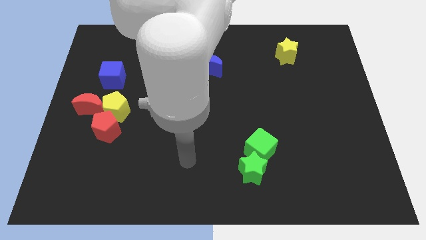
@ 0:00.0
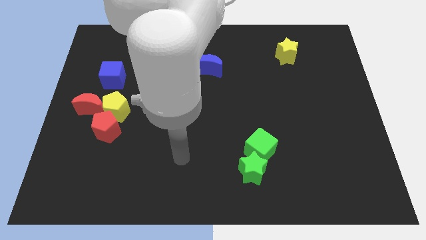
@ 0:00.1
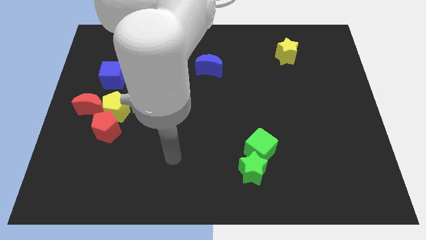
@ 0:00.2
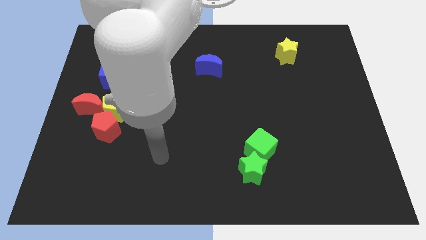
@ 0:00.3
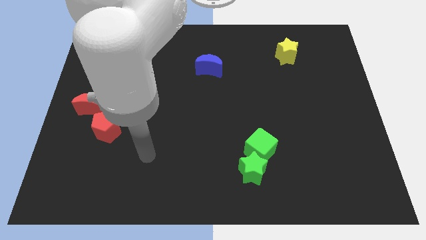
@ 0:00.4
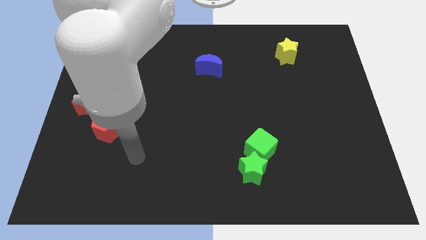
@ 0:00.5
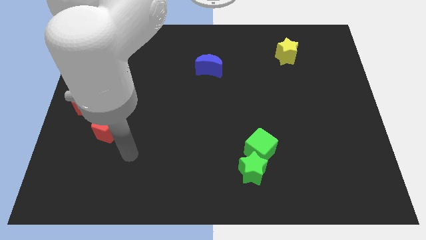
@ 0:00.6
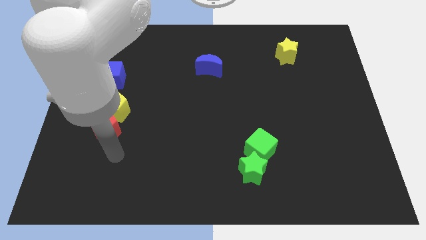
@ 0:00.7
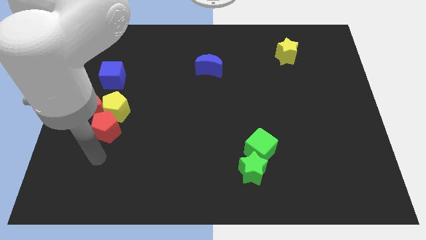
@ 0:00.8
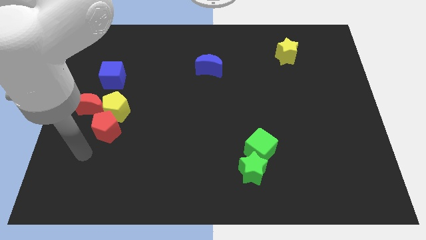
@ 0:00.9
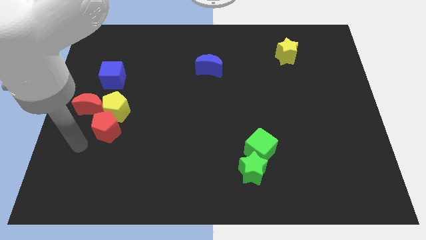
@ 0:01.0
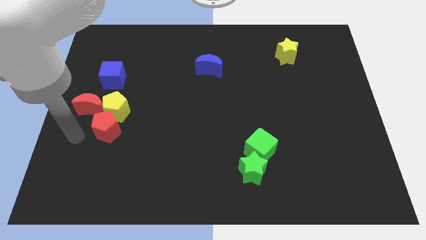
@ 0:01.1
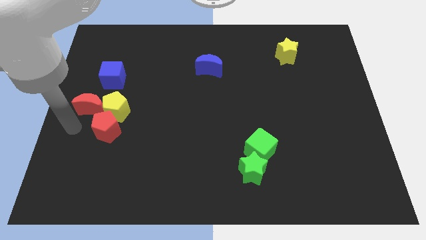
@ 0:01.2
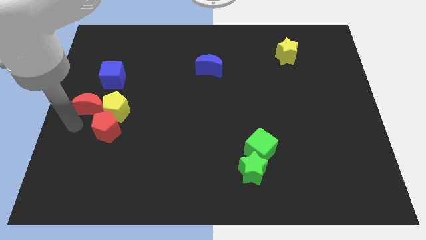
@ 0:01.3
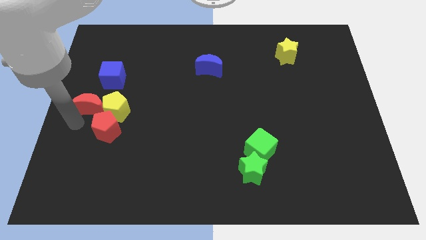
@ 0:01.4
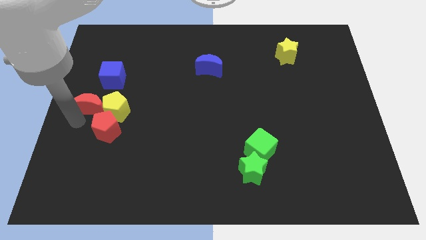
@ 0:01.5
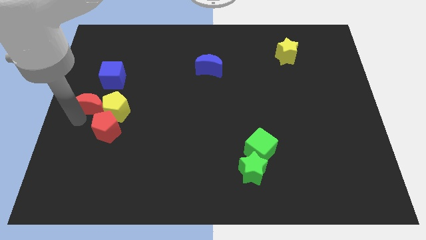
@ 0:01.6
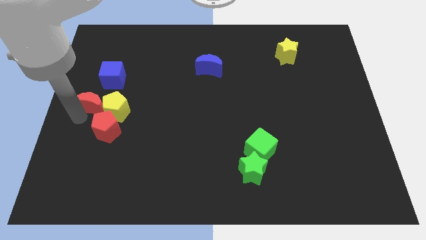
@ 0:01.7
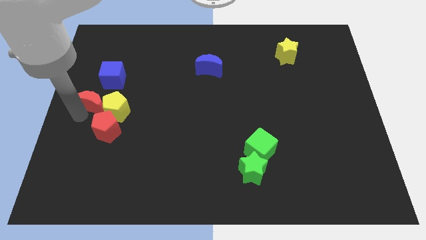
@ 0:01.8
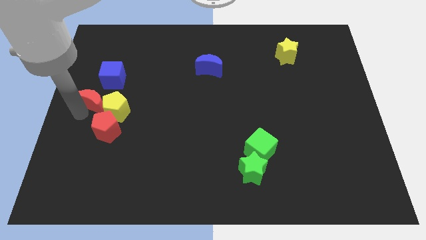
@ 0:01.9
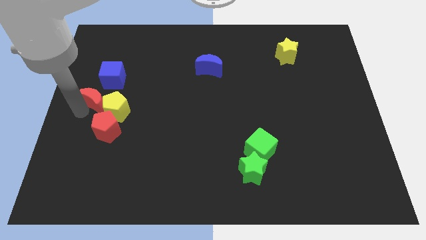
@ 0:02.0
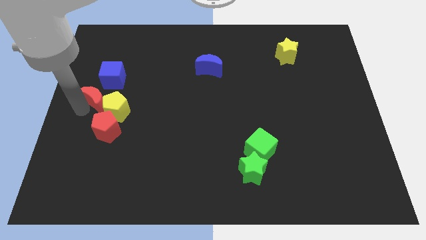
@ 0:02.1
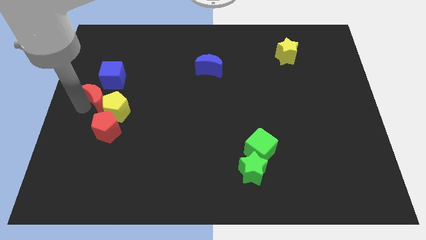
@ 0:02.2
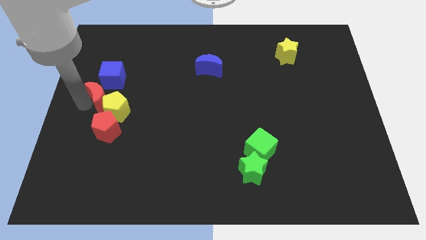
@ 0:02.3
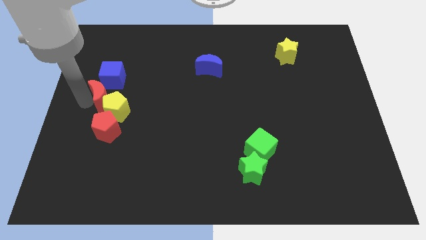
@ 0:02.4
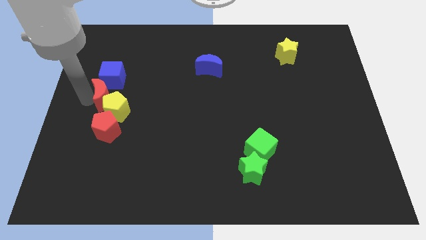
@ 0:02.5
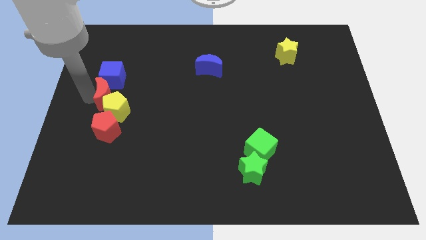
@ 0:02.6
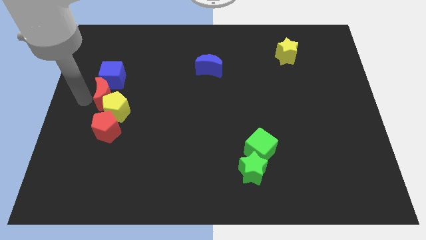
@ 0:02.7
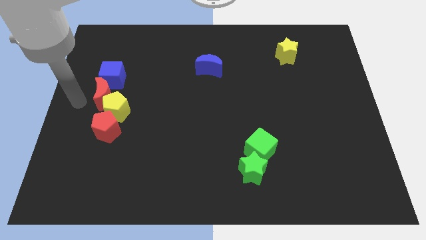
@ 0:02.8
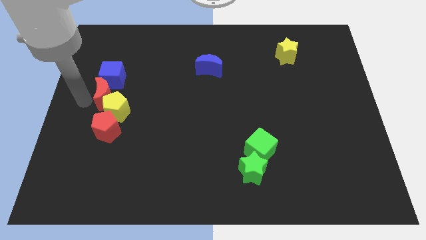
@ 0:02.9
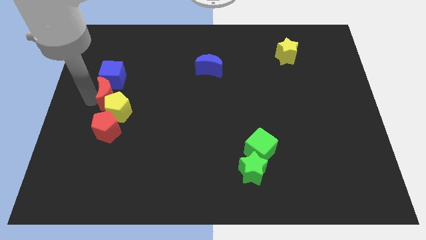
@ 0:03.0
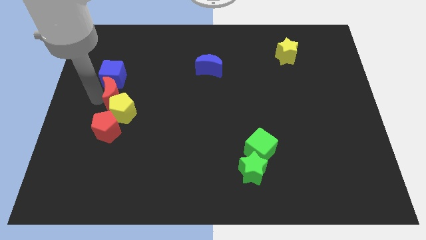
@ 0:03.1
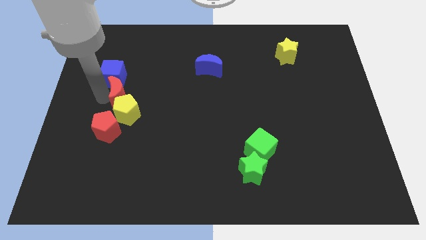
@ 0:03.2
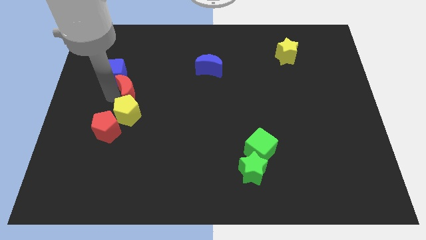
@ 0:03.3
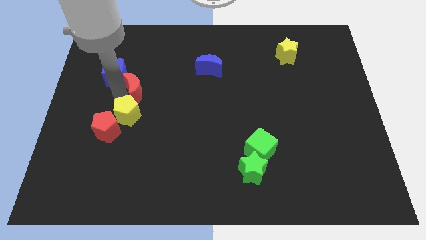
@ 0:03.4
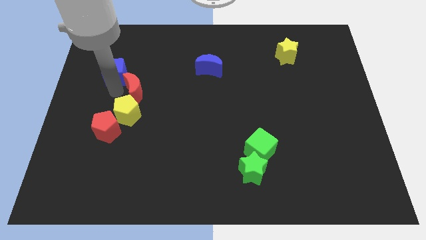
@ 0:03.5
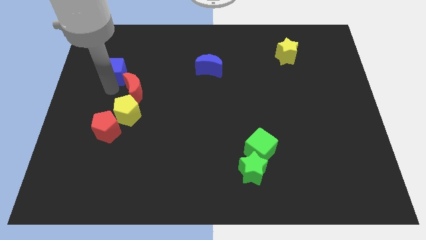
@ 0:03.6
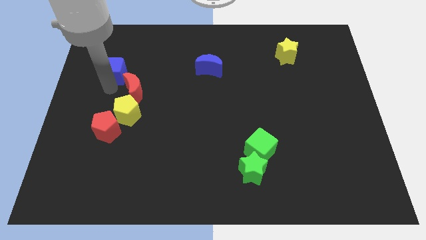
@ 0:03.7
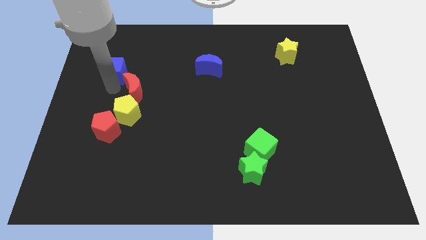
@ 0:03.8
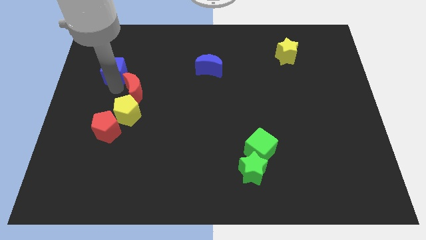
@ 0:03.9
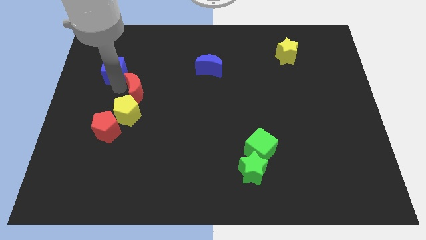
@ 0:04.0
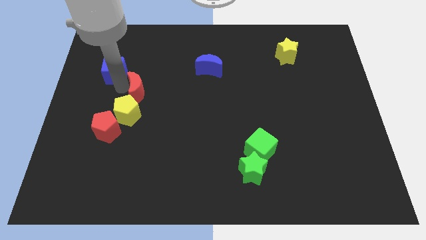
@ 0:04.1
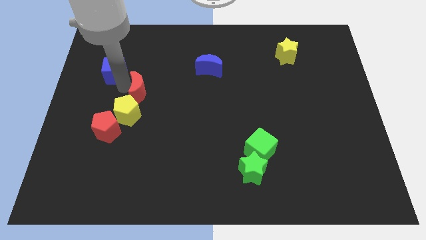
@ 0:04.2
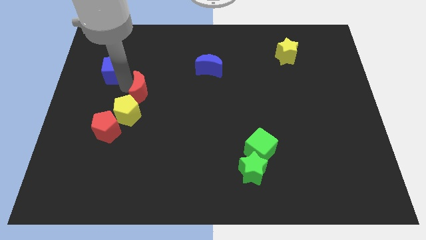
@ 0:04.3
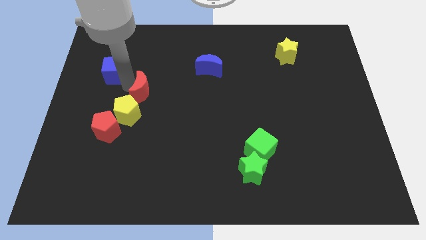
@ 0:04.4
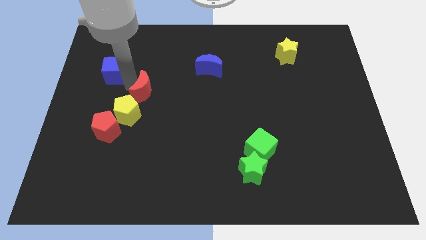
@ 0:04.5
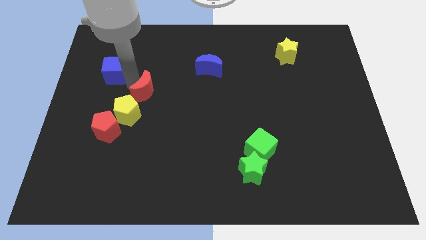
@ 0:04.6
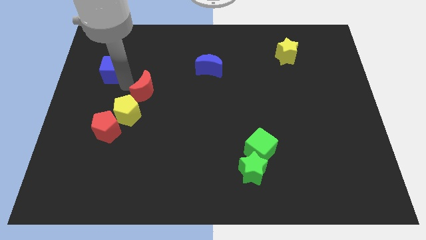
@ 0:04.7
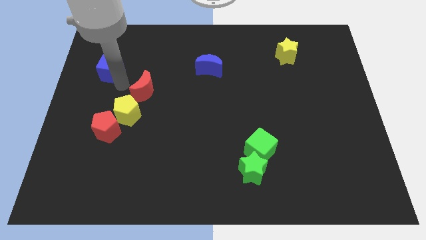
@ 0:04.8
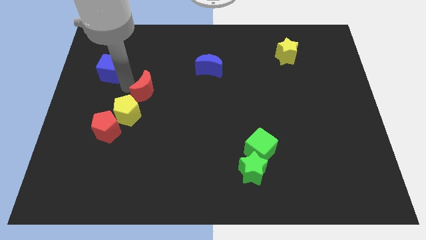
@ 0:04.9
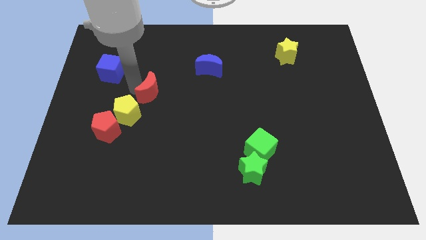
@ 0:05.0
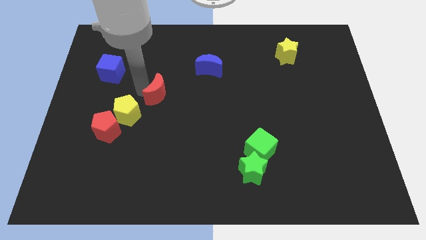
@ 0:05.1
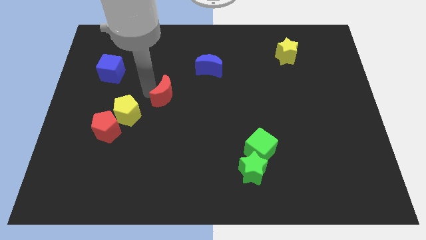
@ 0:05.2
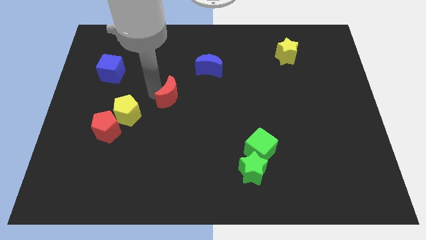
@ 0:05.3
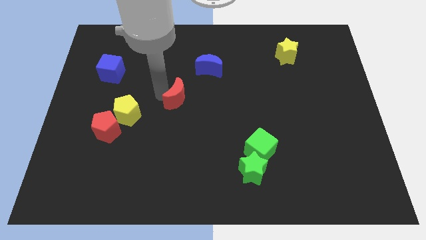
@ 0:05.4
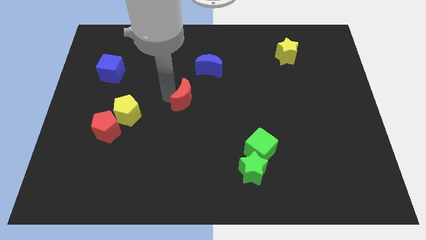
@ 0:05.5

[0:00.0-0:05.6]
slide the red moon right

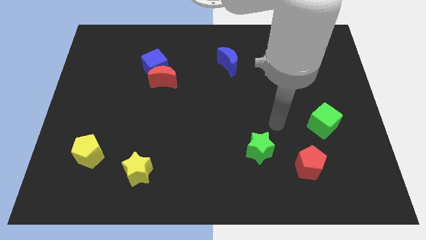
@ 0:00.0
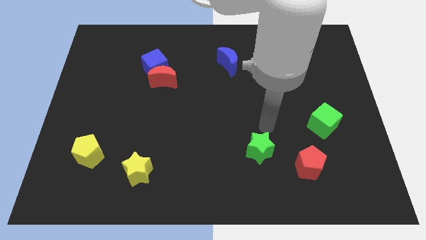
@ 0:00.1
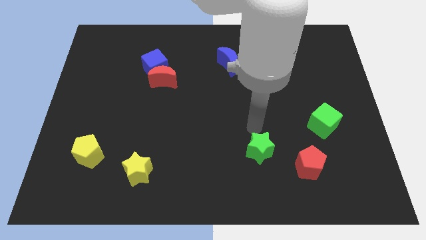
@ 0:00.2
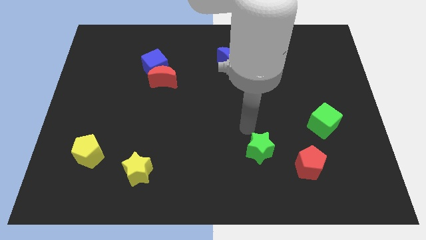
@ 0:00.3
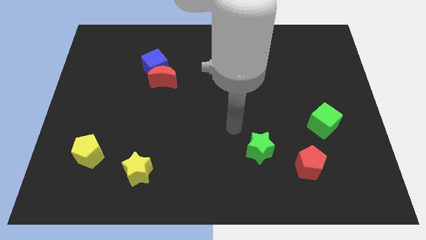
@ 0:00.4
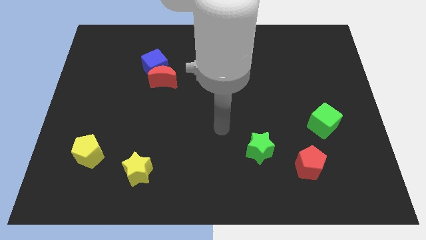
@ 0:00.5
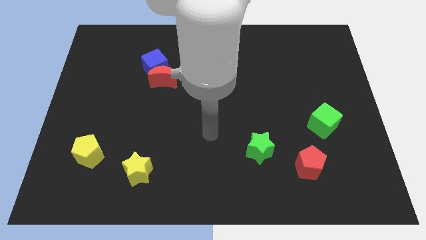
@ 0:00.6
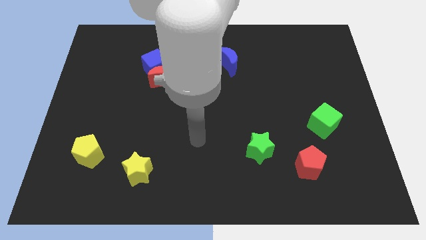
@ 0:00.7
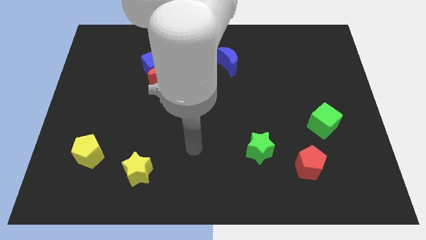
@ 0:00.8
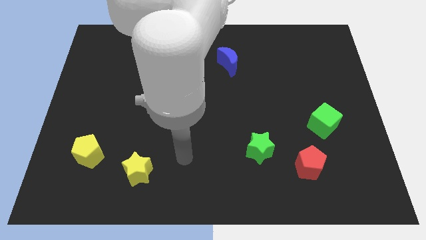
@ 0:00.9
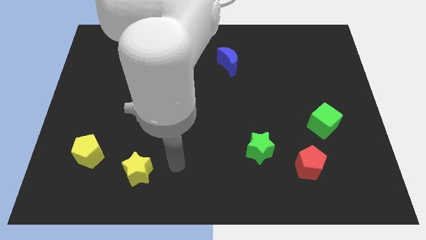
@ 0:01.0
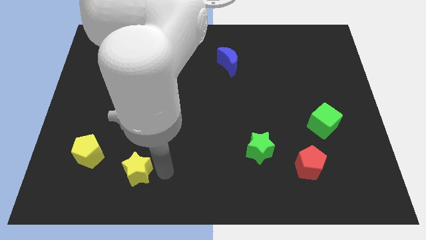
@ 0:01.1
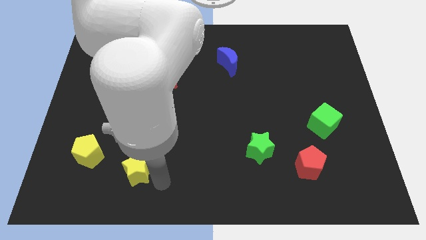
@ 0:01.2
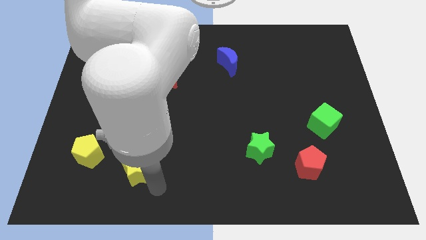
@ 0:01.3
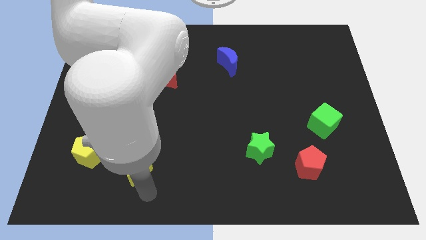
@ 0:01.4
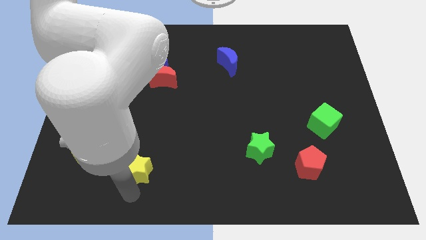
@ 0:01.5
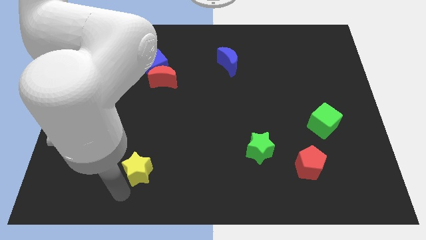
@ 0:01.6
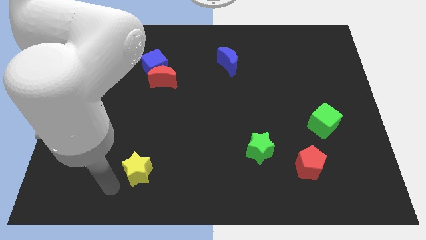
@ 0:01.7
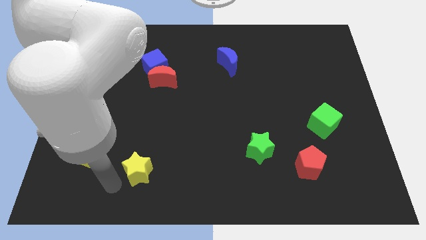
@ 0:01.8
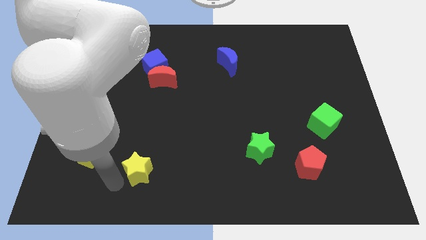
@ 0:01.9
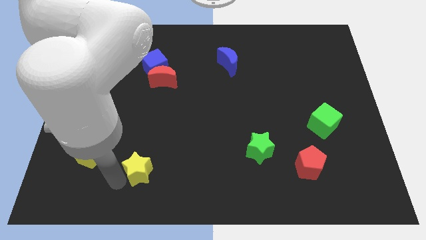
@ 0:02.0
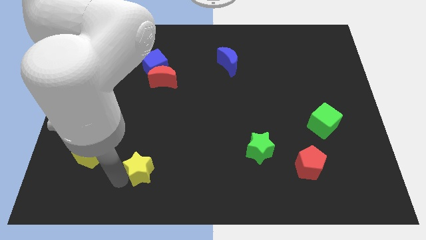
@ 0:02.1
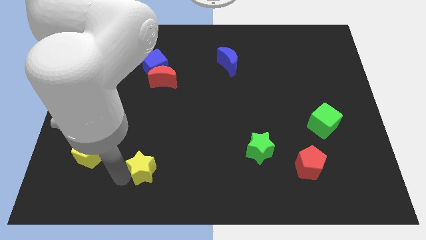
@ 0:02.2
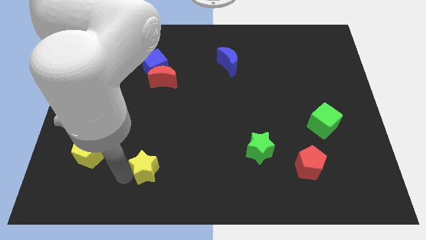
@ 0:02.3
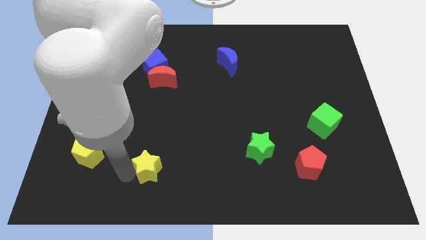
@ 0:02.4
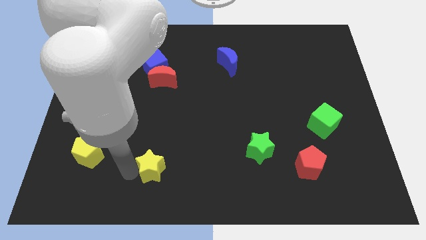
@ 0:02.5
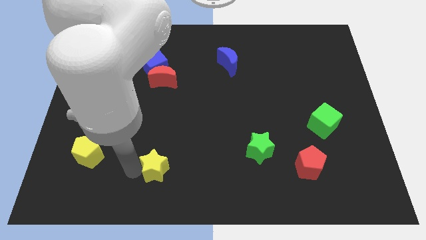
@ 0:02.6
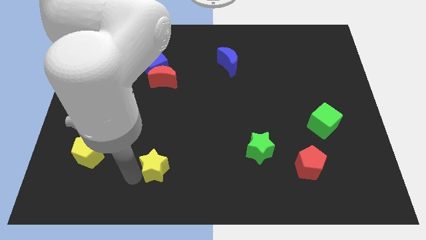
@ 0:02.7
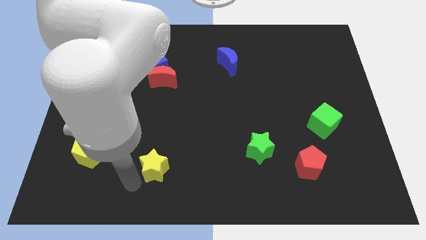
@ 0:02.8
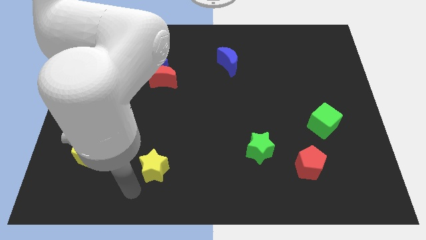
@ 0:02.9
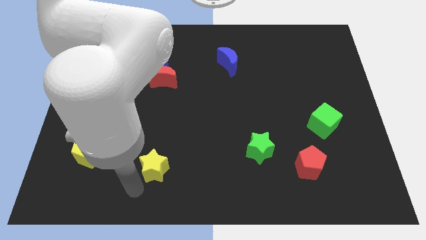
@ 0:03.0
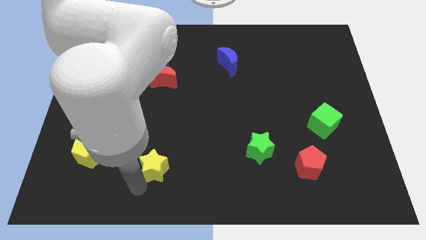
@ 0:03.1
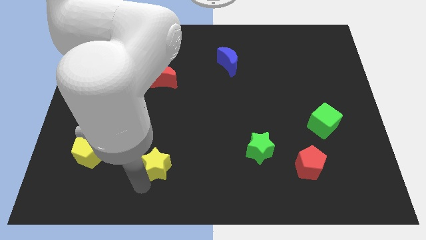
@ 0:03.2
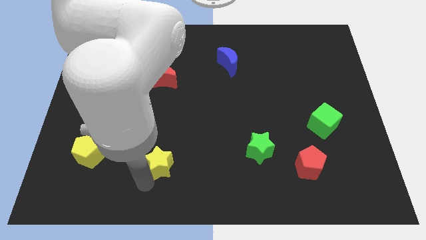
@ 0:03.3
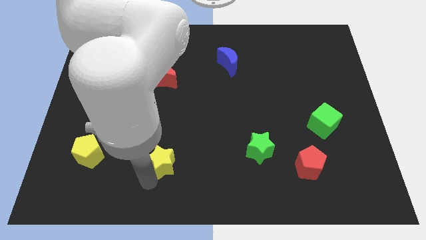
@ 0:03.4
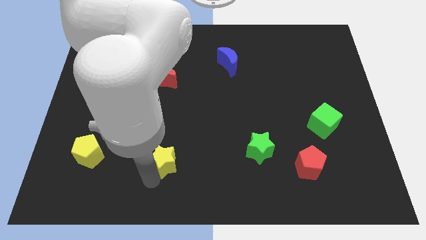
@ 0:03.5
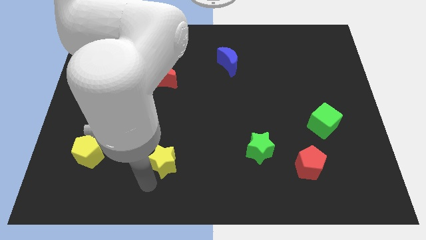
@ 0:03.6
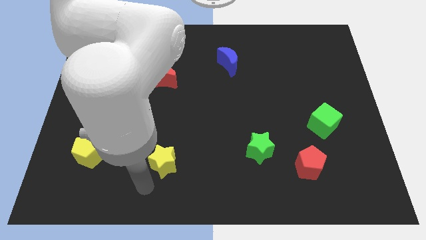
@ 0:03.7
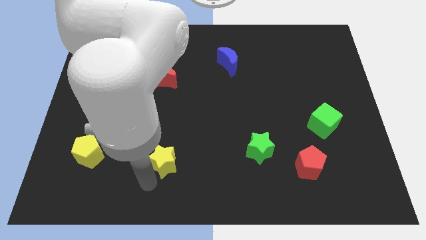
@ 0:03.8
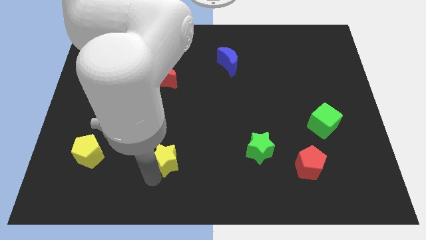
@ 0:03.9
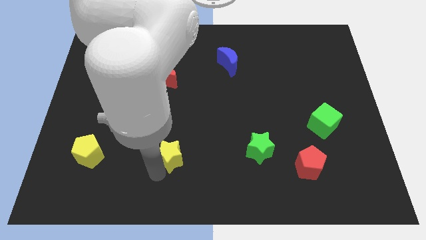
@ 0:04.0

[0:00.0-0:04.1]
slide the yellow star a little bit upwards and right diagonally
